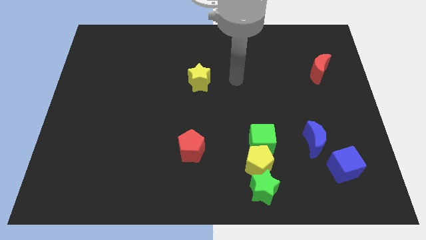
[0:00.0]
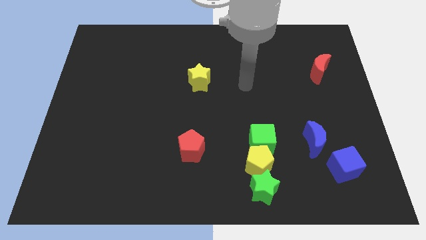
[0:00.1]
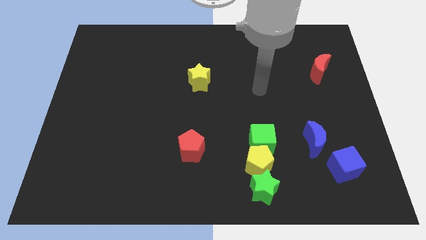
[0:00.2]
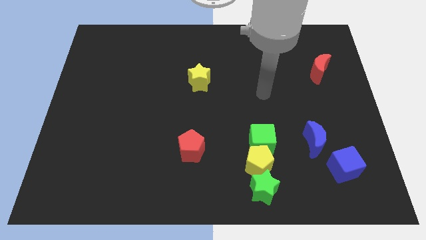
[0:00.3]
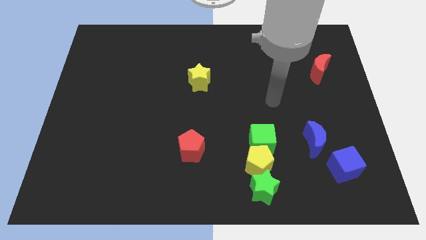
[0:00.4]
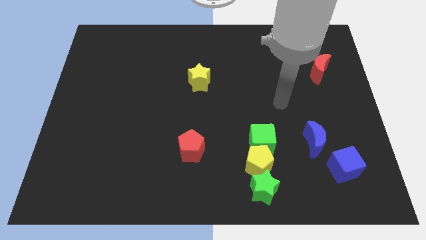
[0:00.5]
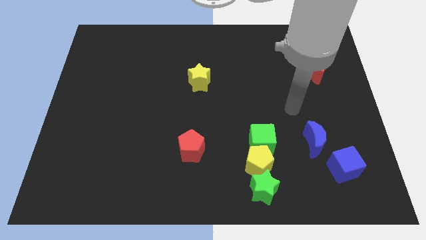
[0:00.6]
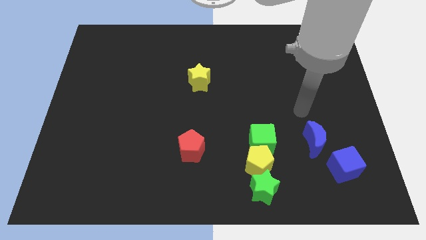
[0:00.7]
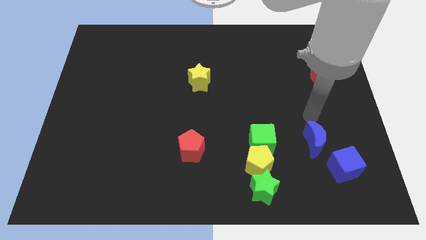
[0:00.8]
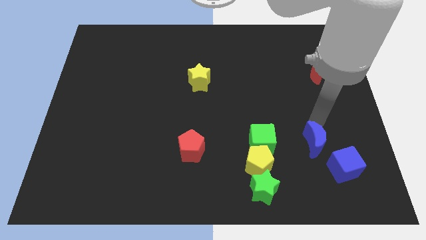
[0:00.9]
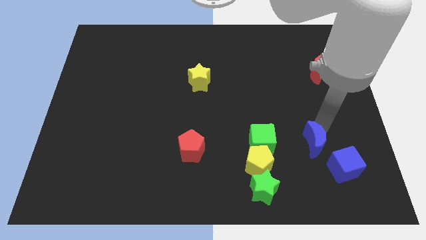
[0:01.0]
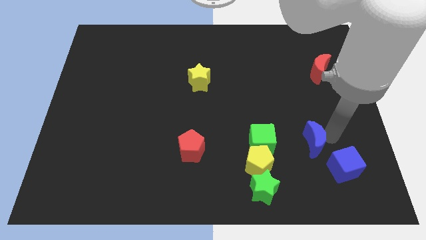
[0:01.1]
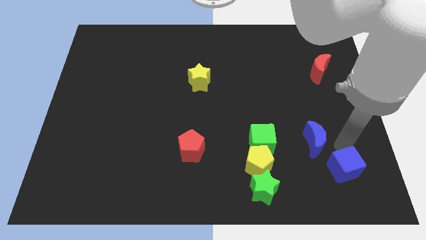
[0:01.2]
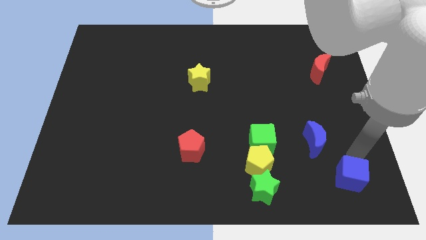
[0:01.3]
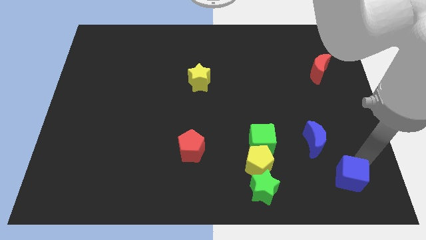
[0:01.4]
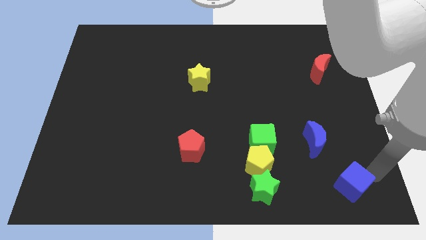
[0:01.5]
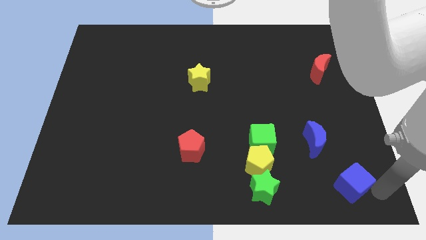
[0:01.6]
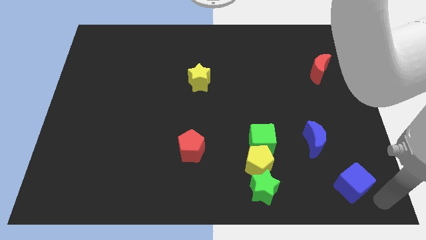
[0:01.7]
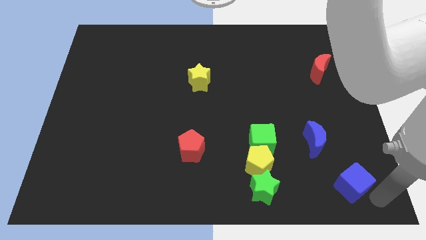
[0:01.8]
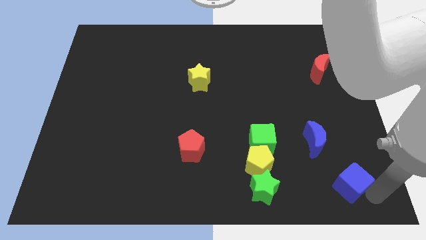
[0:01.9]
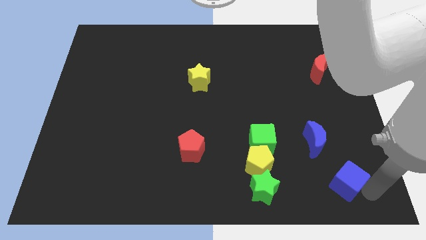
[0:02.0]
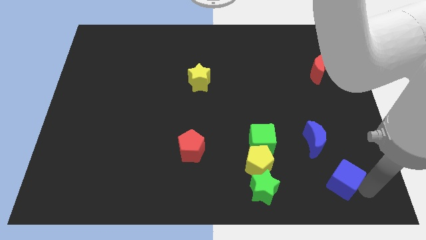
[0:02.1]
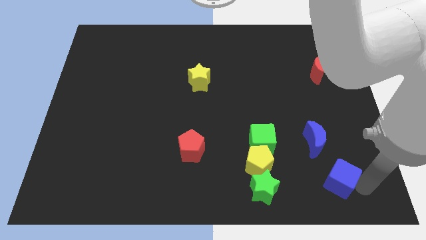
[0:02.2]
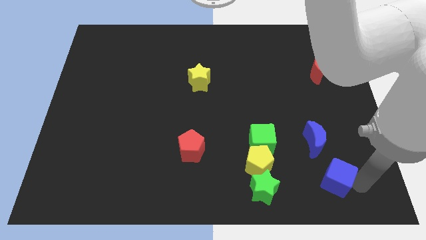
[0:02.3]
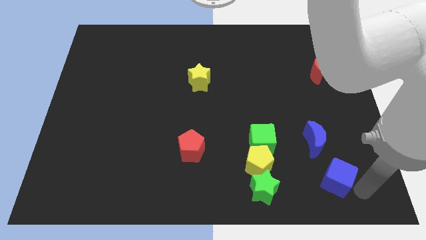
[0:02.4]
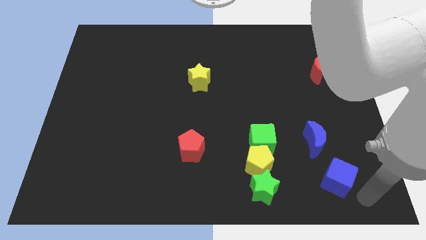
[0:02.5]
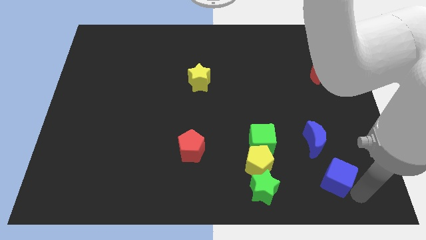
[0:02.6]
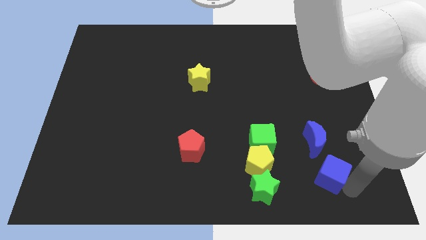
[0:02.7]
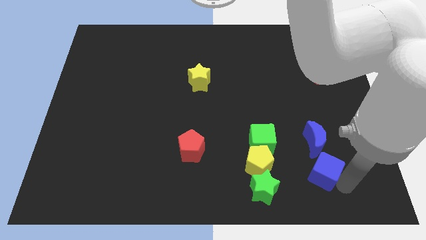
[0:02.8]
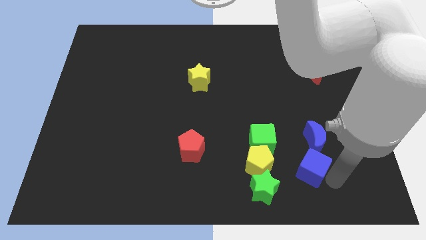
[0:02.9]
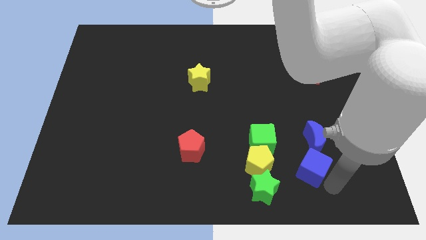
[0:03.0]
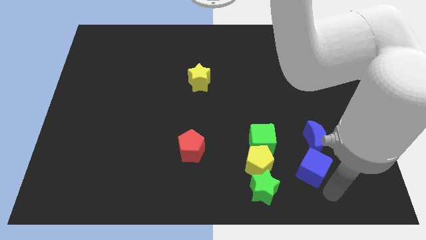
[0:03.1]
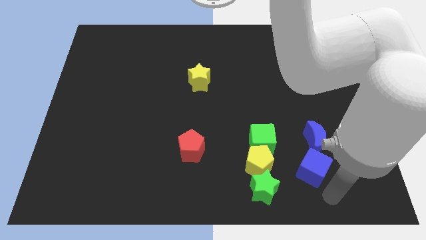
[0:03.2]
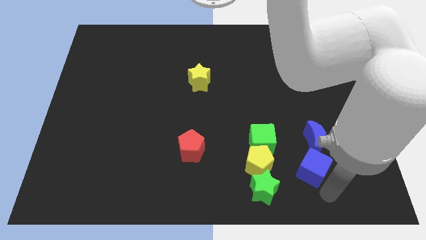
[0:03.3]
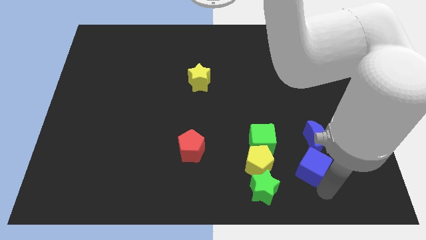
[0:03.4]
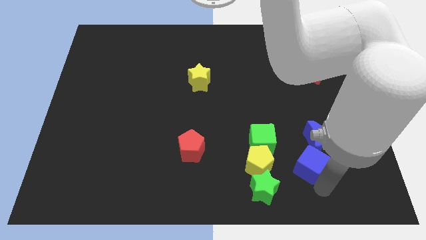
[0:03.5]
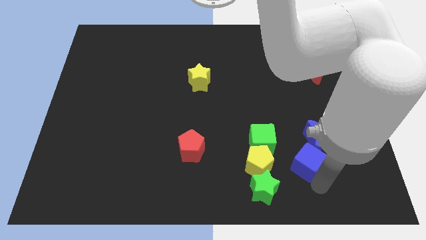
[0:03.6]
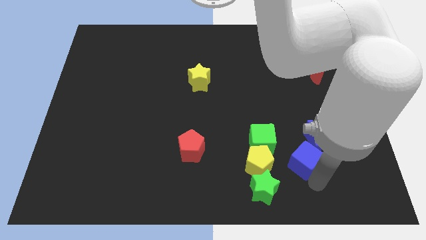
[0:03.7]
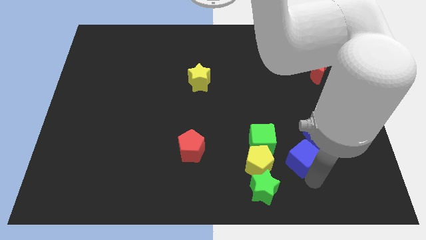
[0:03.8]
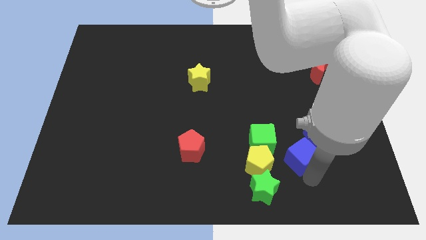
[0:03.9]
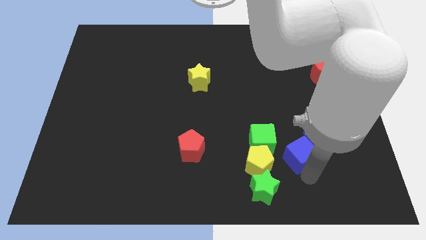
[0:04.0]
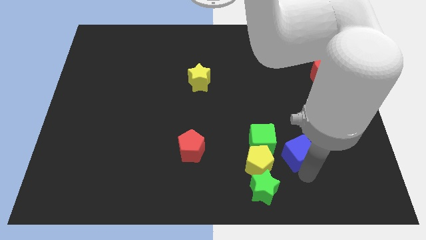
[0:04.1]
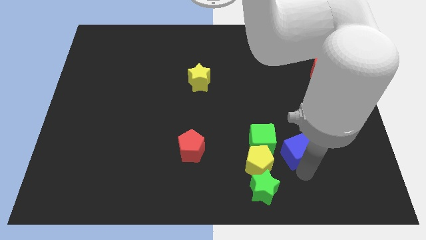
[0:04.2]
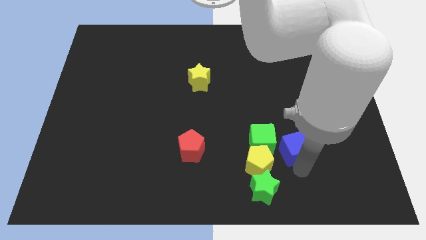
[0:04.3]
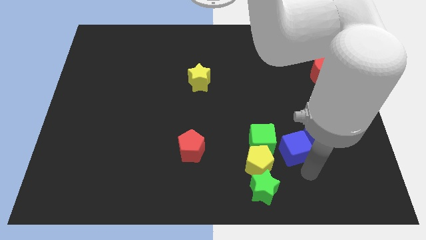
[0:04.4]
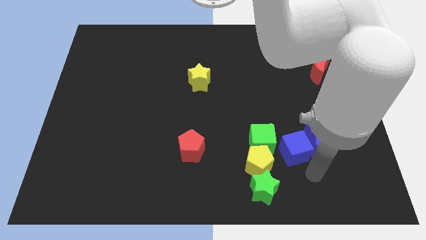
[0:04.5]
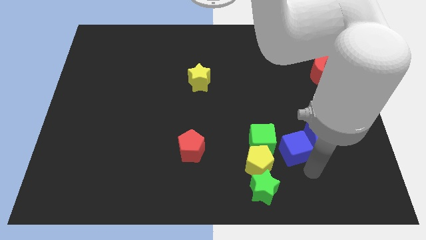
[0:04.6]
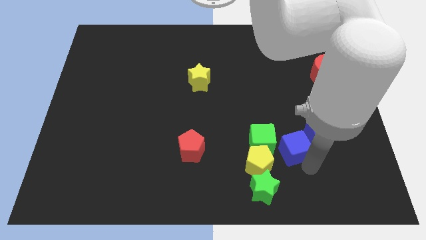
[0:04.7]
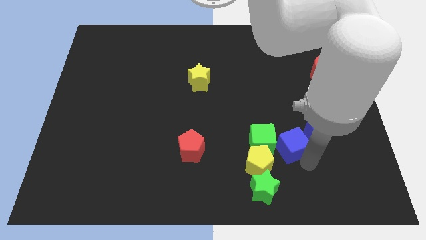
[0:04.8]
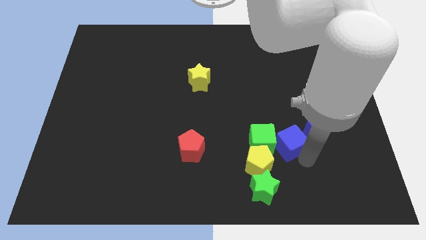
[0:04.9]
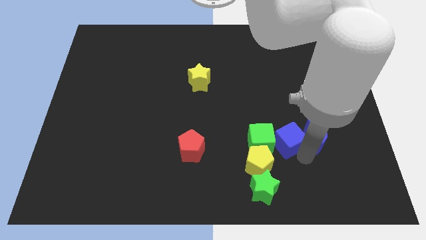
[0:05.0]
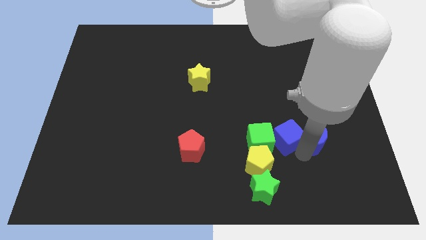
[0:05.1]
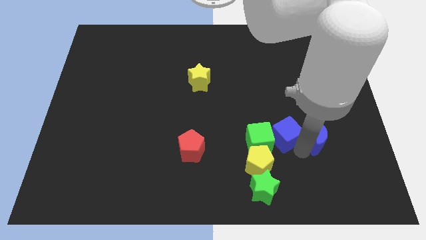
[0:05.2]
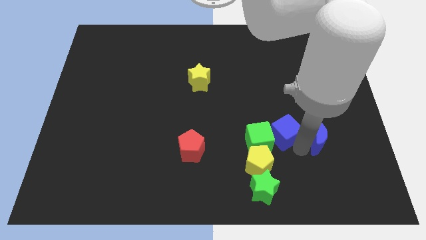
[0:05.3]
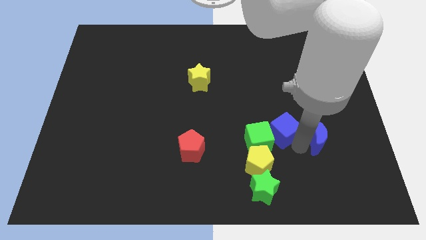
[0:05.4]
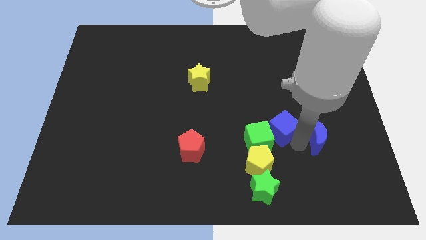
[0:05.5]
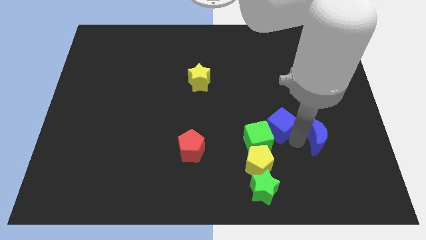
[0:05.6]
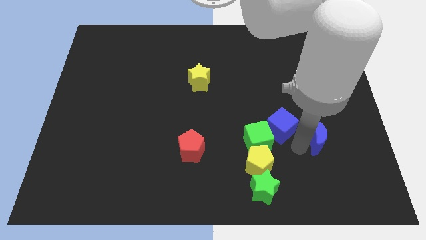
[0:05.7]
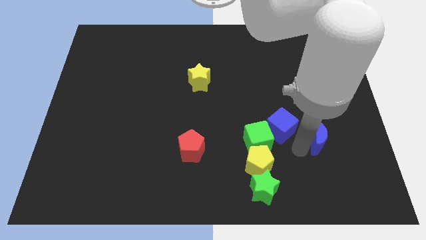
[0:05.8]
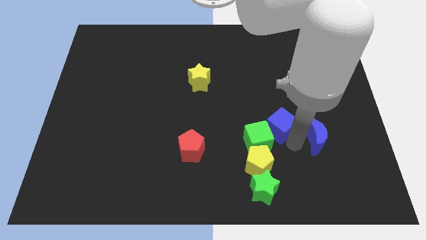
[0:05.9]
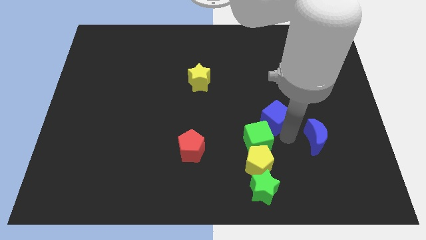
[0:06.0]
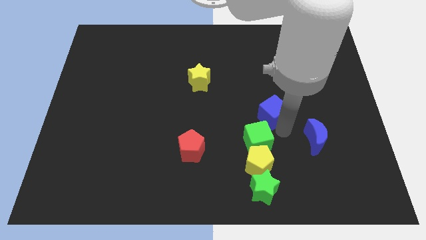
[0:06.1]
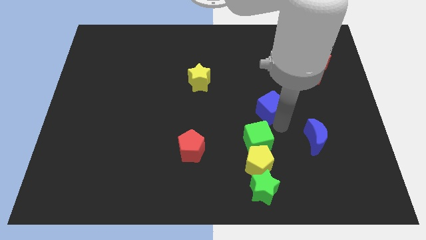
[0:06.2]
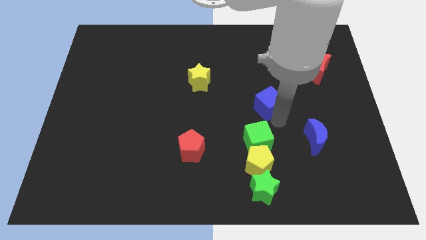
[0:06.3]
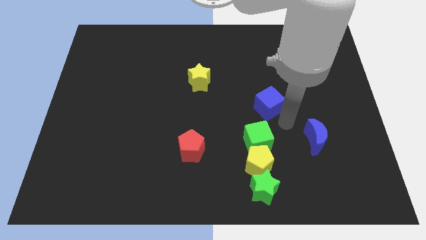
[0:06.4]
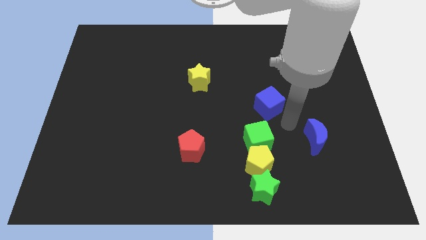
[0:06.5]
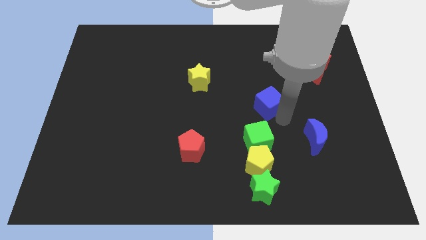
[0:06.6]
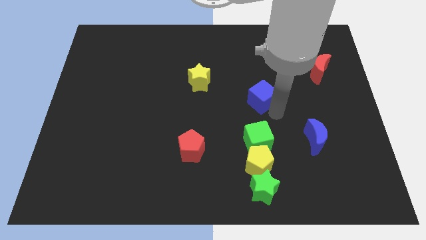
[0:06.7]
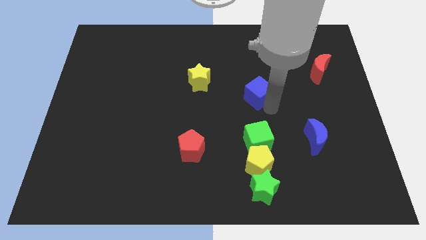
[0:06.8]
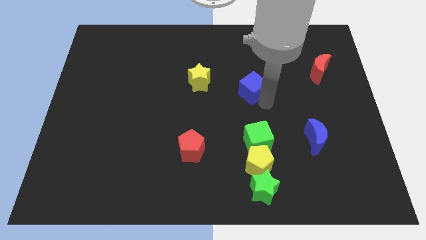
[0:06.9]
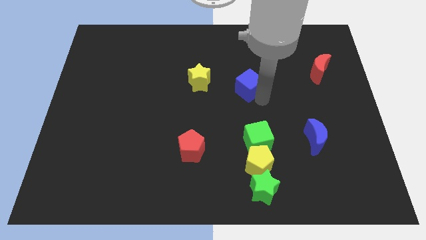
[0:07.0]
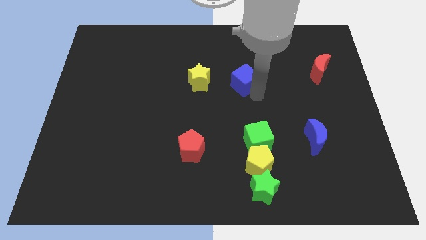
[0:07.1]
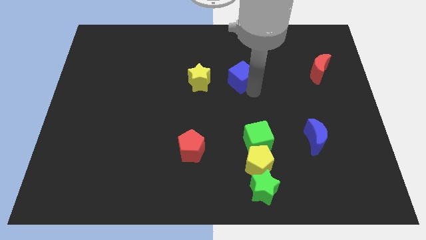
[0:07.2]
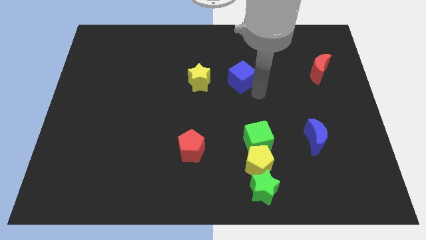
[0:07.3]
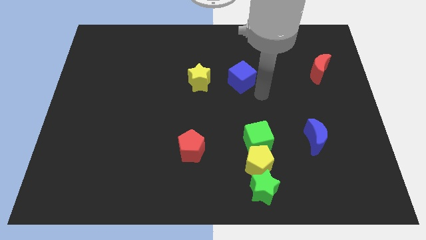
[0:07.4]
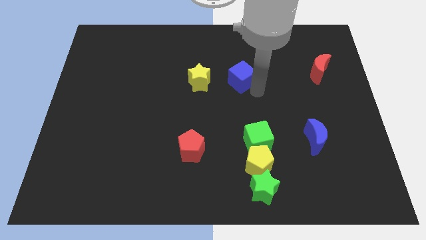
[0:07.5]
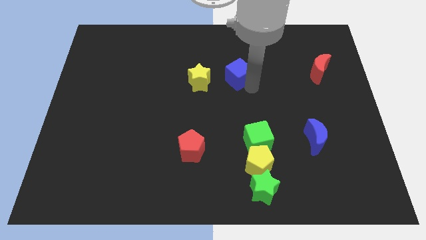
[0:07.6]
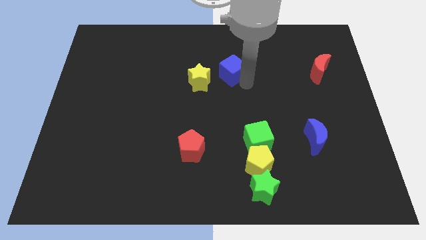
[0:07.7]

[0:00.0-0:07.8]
move the blue cube to the top right side of the yellow star

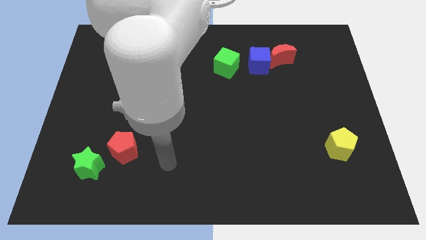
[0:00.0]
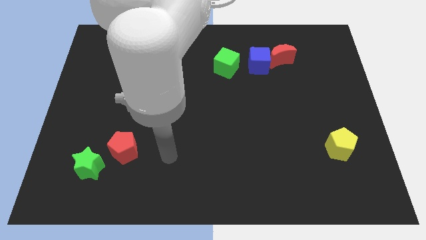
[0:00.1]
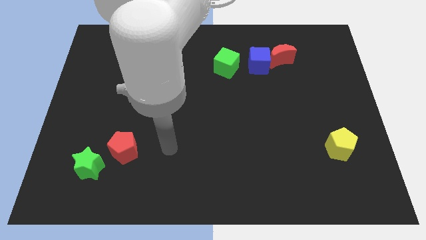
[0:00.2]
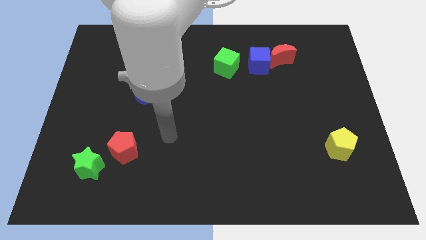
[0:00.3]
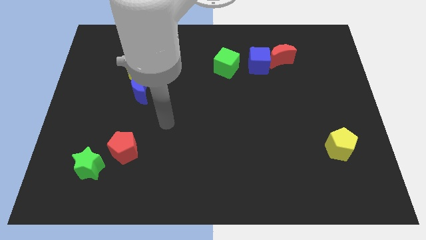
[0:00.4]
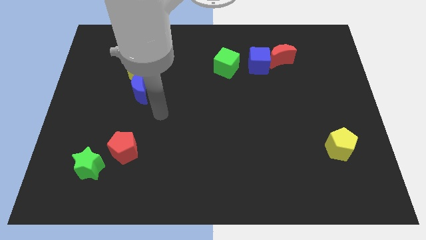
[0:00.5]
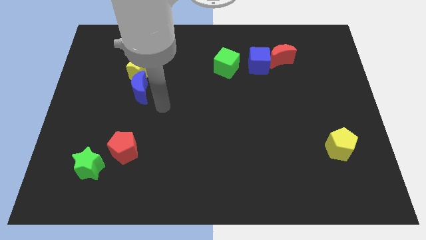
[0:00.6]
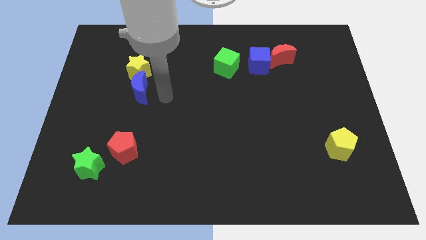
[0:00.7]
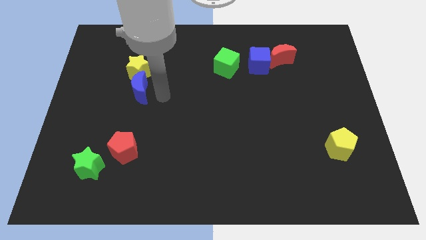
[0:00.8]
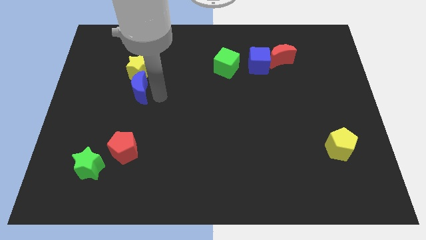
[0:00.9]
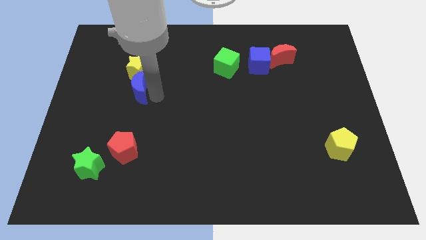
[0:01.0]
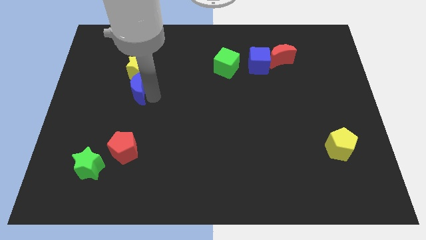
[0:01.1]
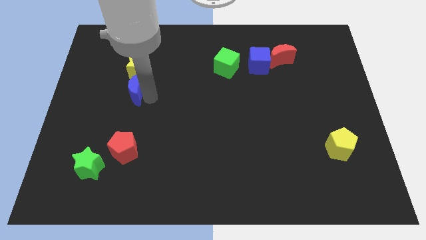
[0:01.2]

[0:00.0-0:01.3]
put the blue moon to the bottom left side of the yellow star
